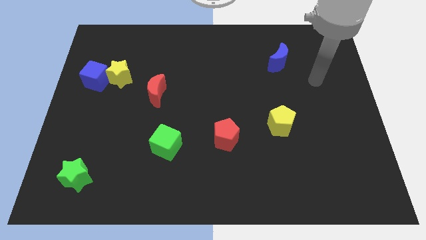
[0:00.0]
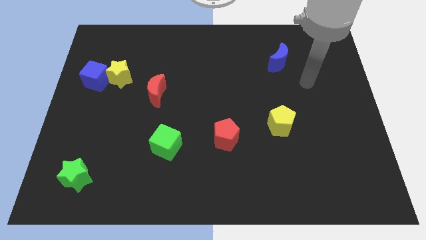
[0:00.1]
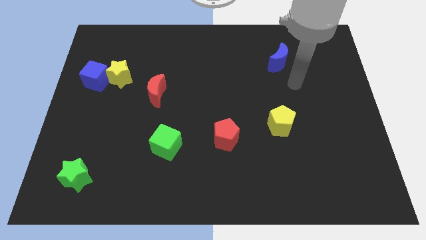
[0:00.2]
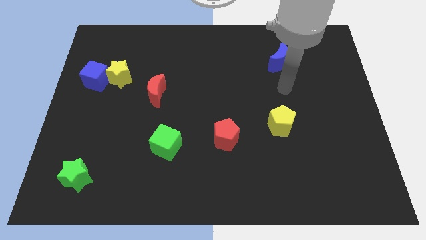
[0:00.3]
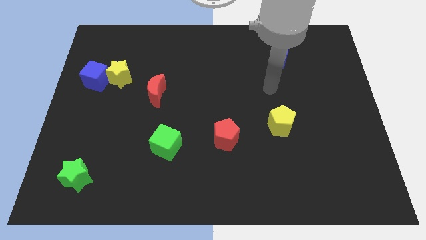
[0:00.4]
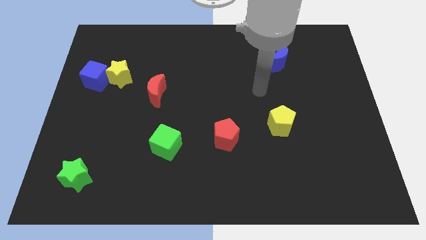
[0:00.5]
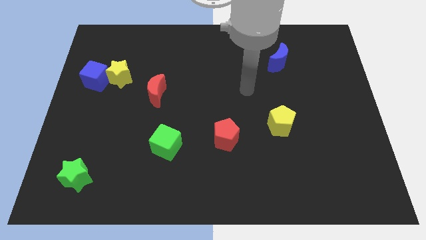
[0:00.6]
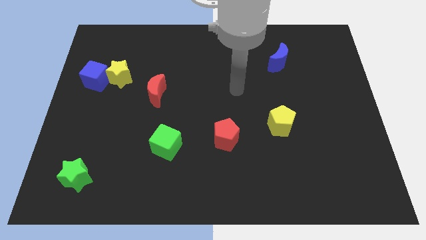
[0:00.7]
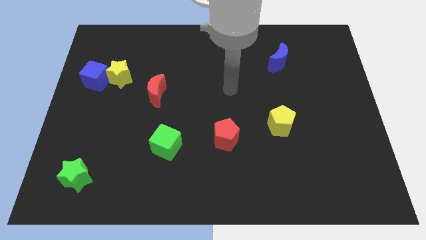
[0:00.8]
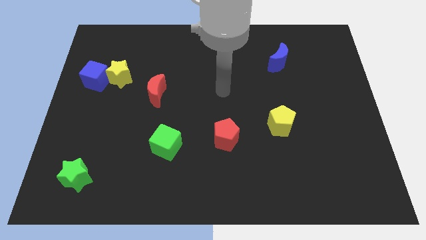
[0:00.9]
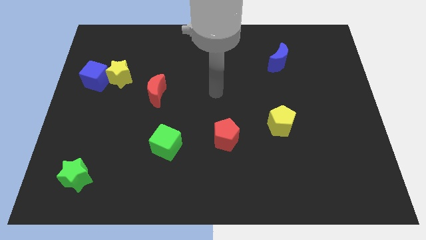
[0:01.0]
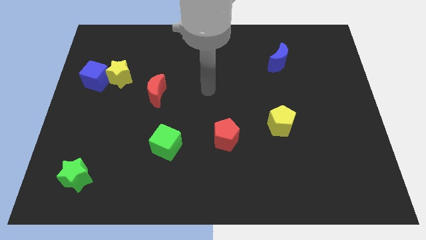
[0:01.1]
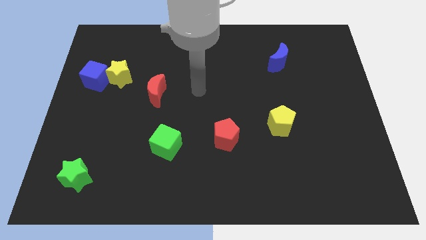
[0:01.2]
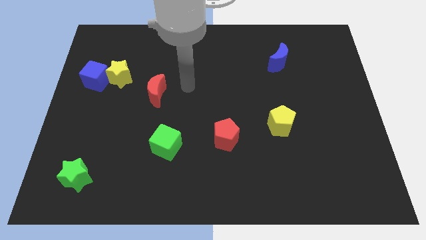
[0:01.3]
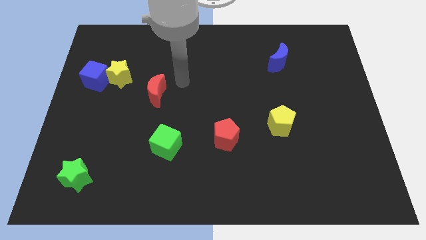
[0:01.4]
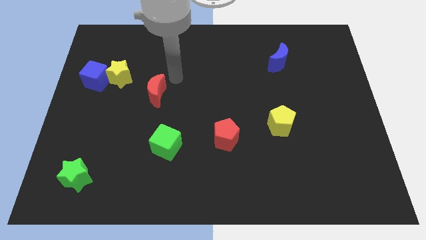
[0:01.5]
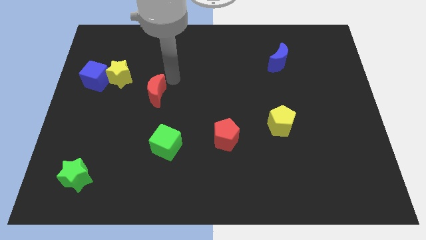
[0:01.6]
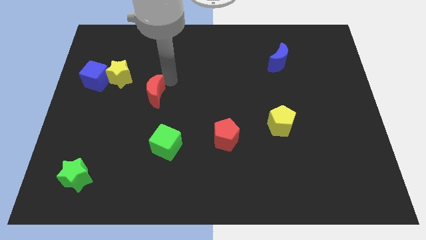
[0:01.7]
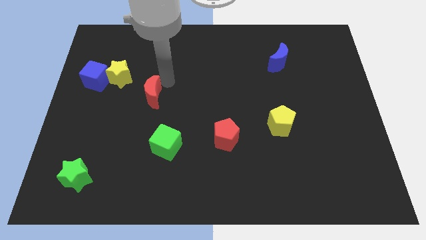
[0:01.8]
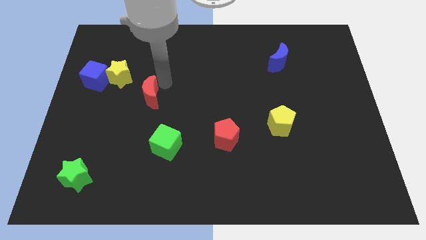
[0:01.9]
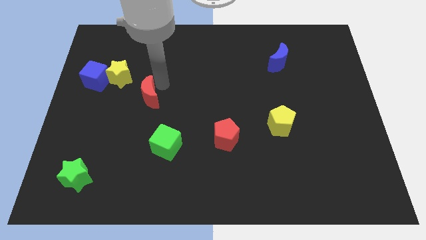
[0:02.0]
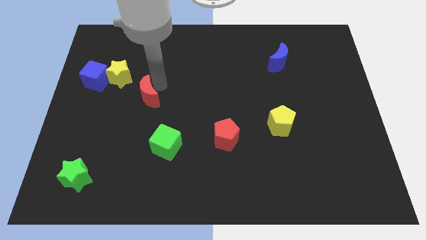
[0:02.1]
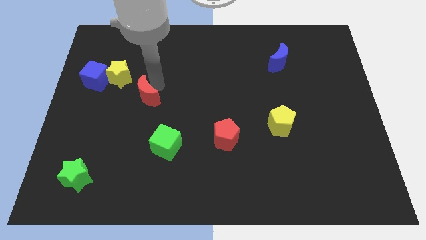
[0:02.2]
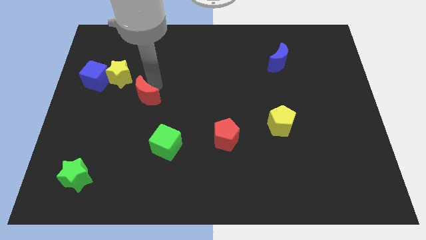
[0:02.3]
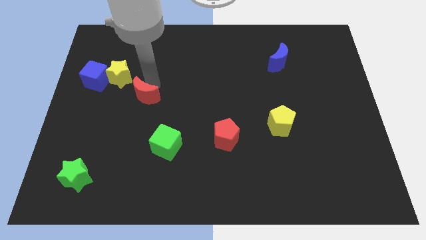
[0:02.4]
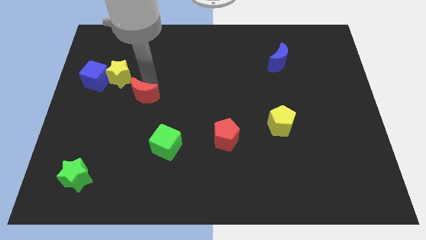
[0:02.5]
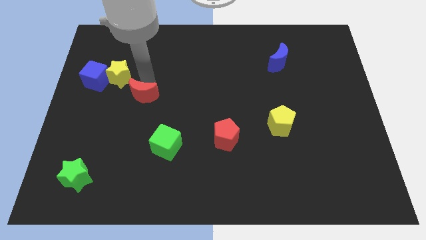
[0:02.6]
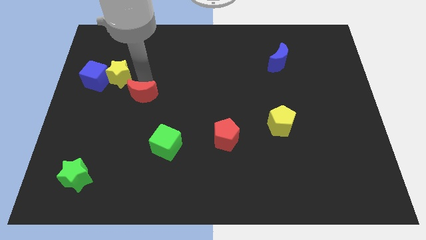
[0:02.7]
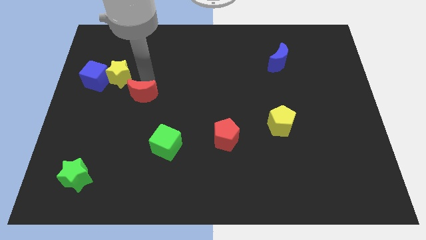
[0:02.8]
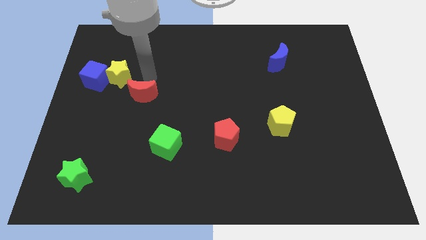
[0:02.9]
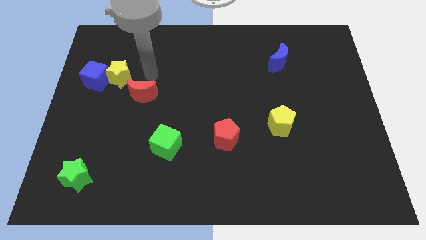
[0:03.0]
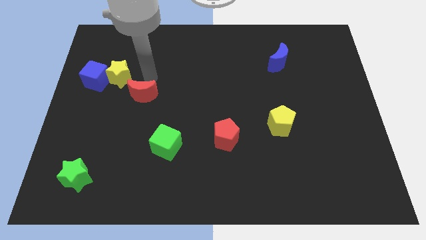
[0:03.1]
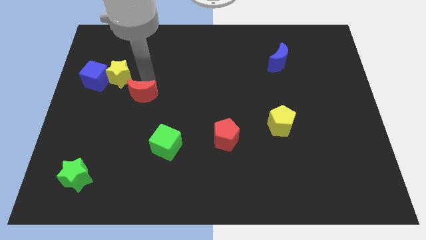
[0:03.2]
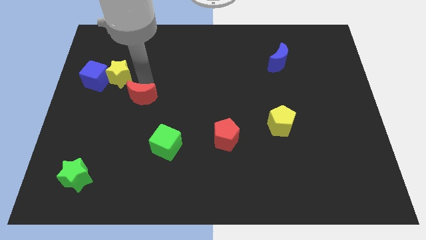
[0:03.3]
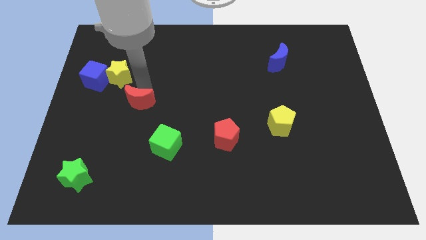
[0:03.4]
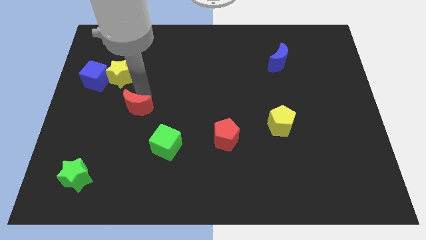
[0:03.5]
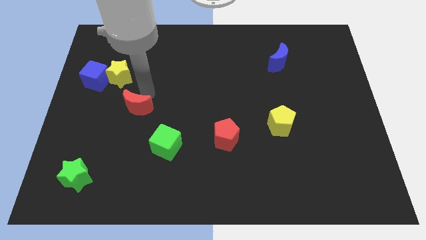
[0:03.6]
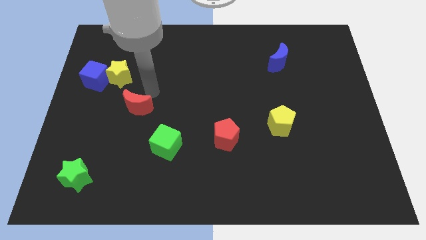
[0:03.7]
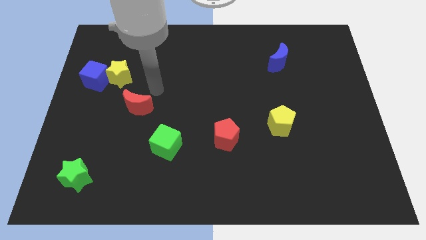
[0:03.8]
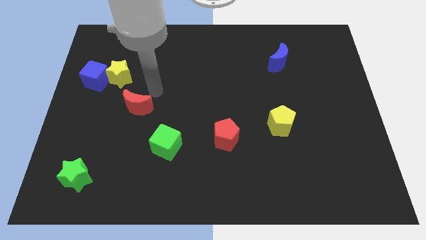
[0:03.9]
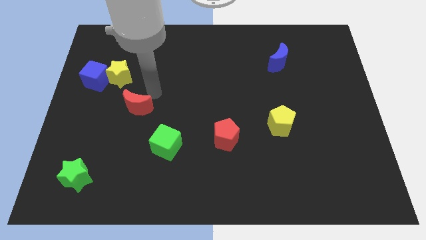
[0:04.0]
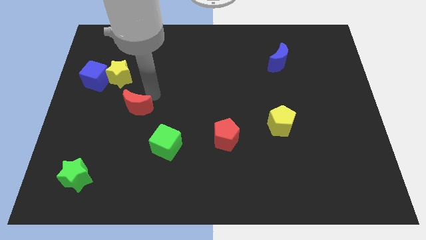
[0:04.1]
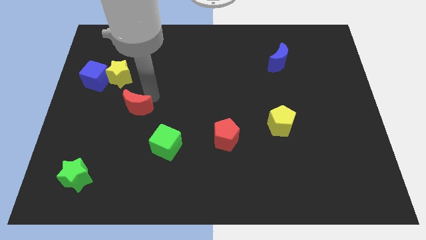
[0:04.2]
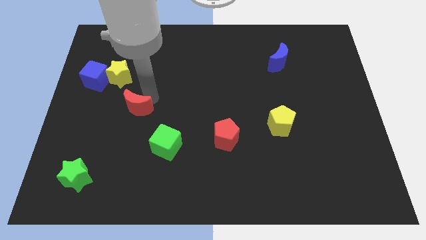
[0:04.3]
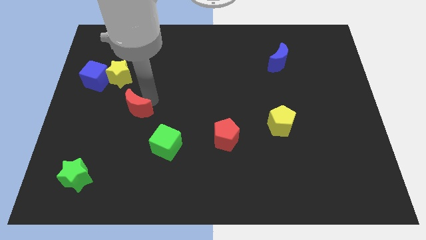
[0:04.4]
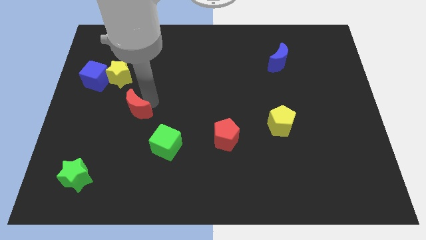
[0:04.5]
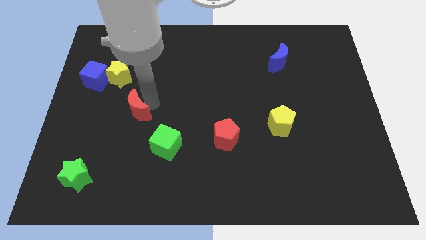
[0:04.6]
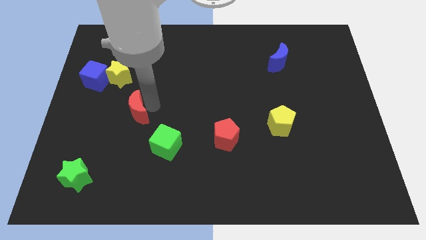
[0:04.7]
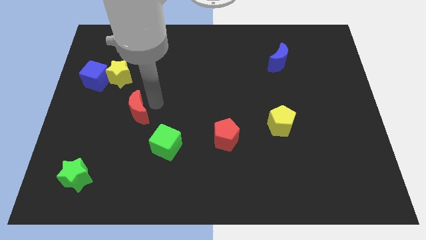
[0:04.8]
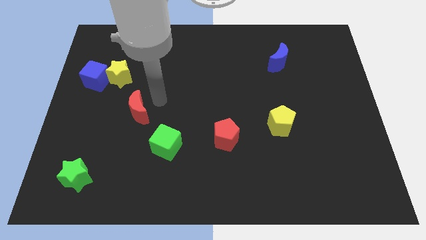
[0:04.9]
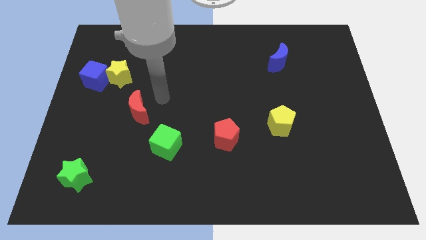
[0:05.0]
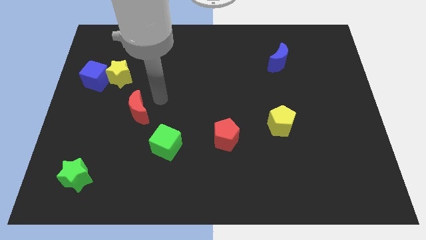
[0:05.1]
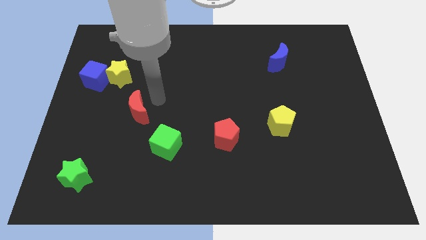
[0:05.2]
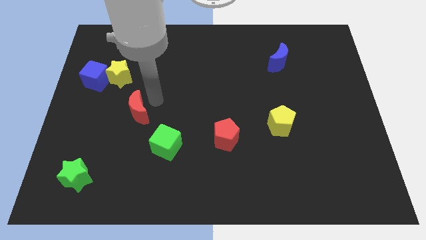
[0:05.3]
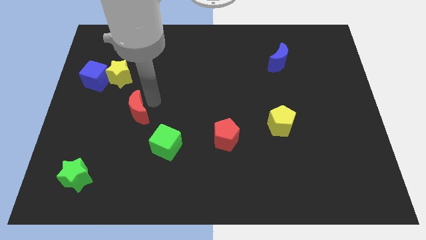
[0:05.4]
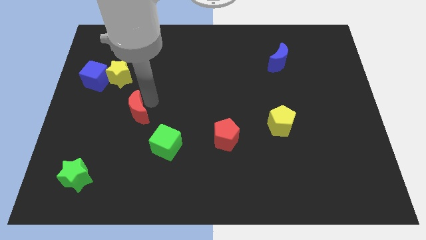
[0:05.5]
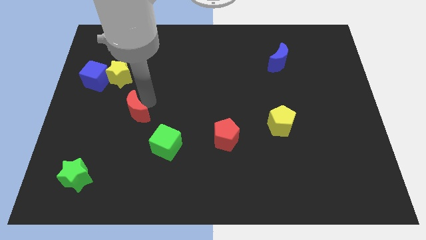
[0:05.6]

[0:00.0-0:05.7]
slightly push the red moon down and left diagonally

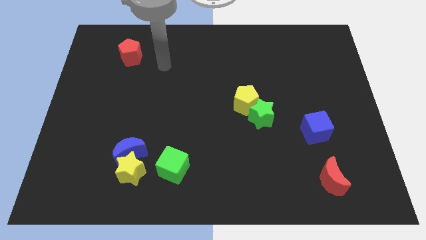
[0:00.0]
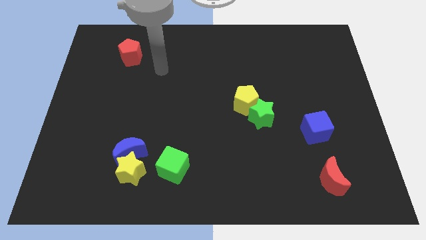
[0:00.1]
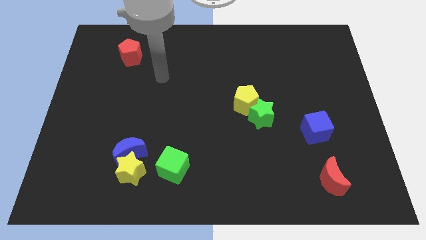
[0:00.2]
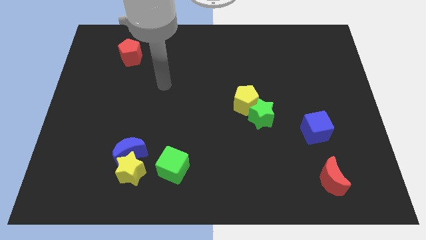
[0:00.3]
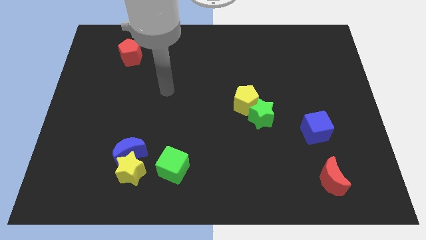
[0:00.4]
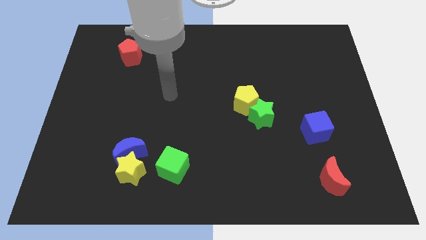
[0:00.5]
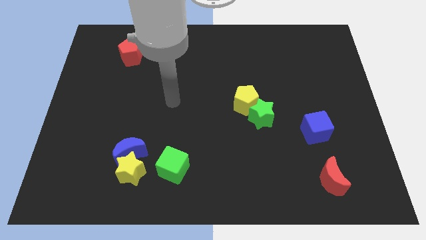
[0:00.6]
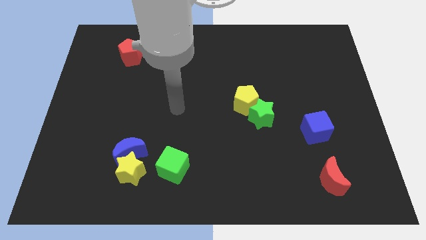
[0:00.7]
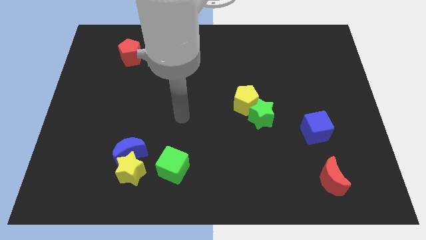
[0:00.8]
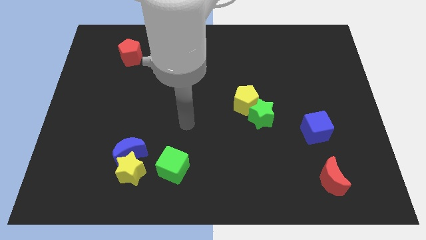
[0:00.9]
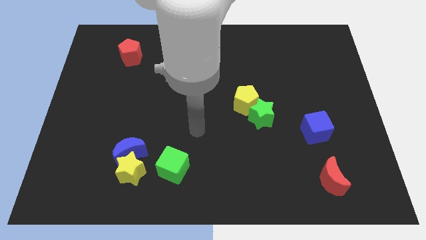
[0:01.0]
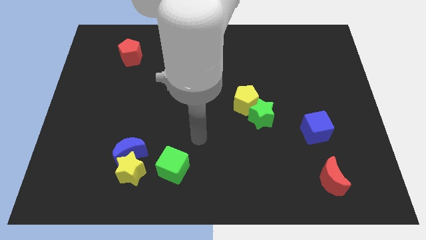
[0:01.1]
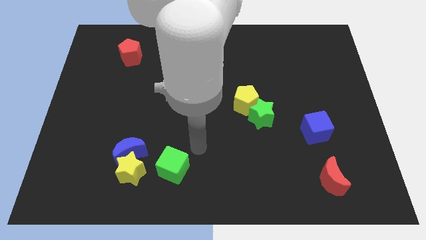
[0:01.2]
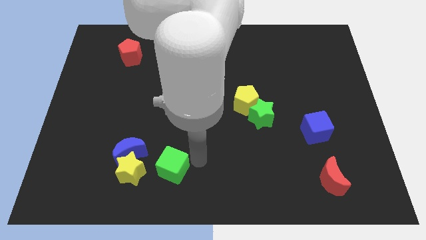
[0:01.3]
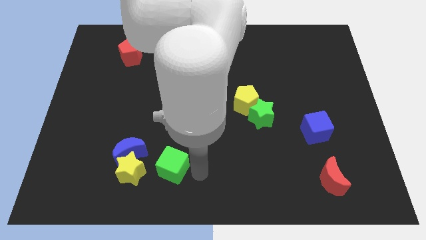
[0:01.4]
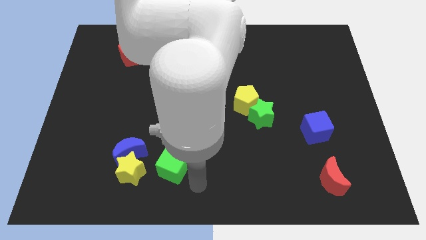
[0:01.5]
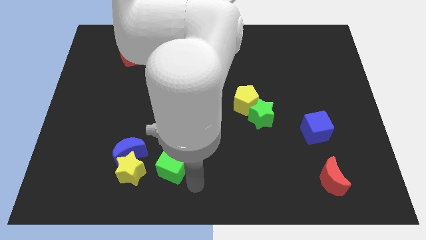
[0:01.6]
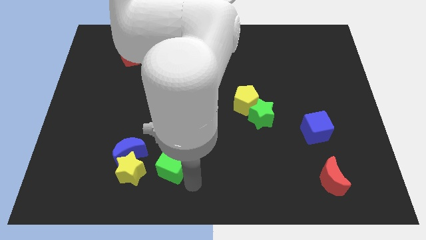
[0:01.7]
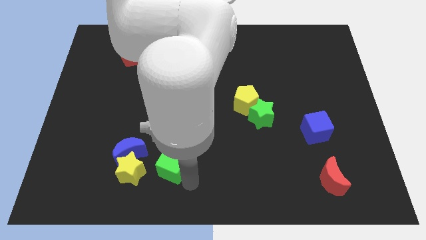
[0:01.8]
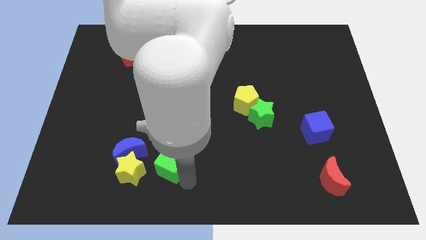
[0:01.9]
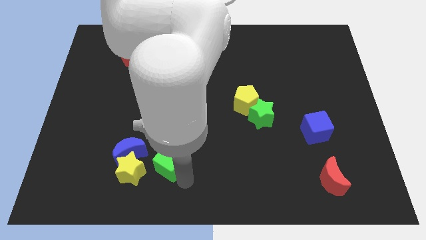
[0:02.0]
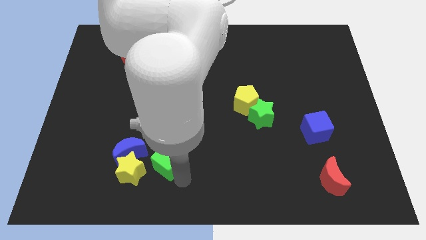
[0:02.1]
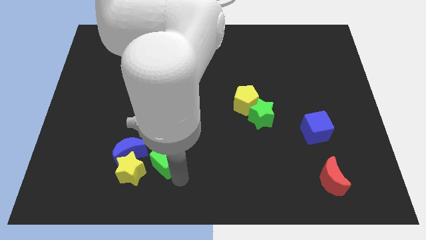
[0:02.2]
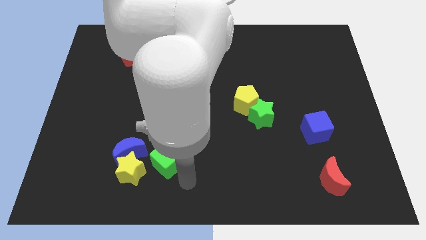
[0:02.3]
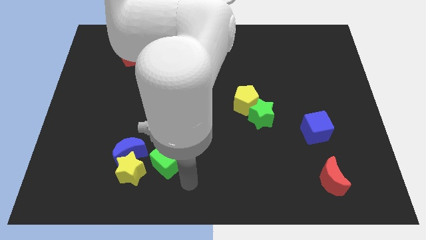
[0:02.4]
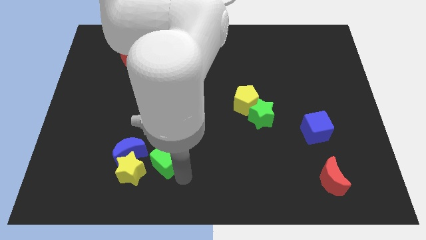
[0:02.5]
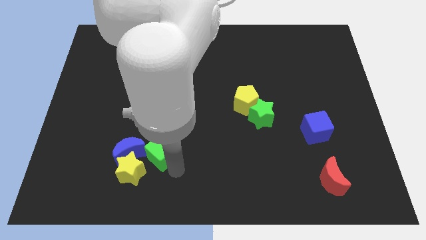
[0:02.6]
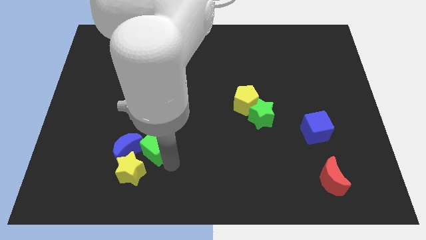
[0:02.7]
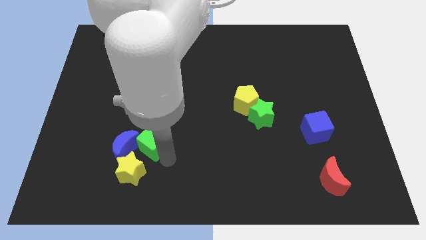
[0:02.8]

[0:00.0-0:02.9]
push the green cube somewhat diagonally upwards and to the left
